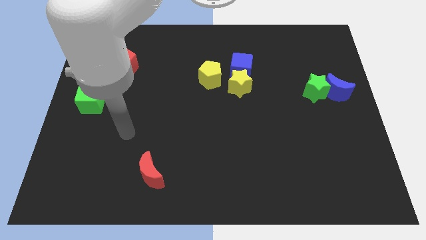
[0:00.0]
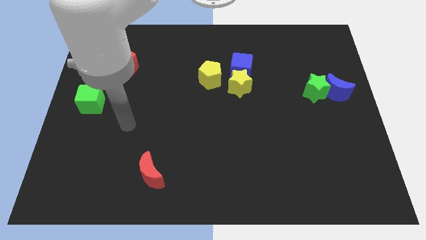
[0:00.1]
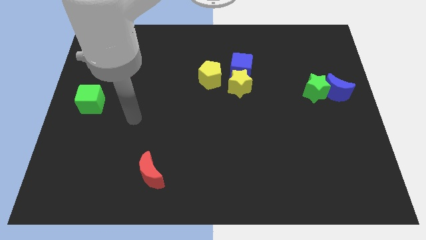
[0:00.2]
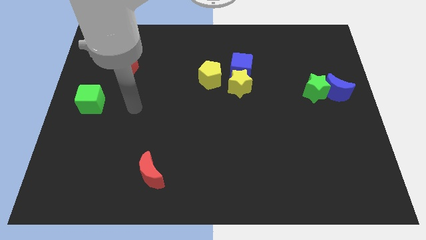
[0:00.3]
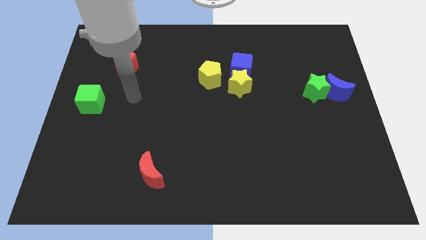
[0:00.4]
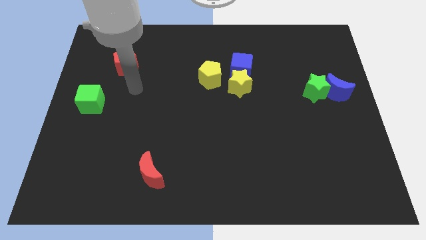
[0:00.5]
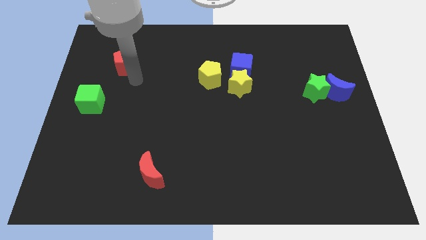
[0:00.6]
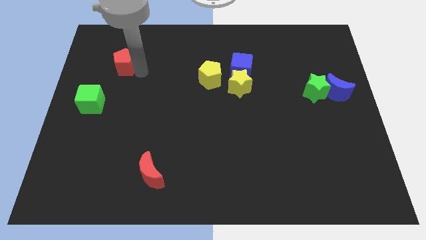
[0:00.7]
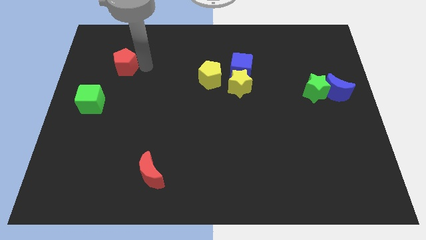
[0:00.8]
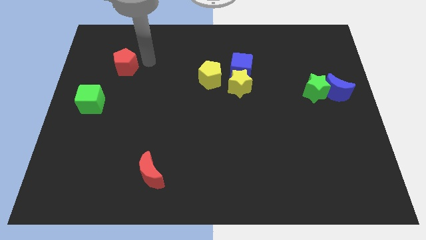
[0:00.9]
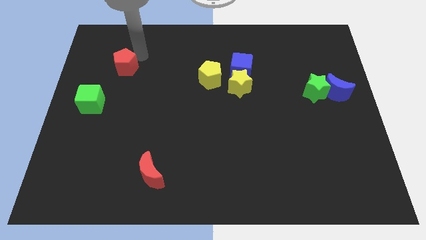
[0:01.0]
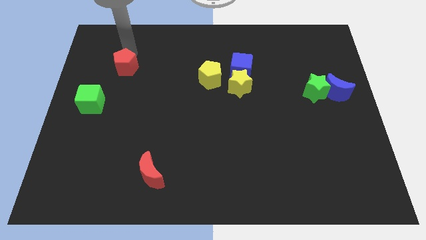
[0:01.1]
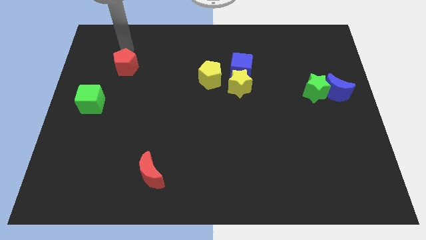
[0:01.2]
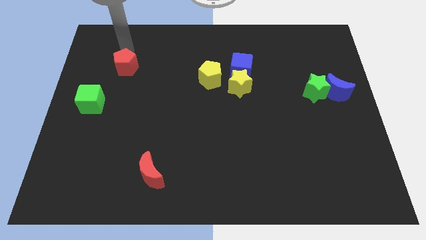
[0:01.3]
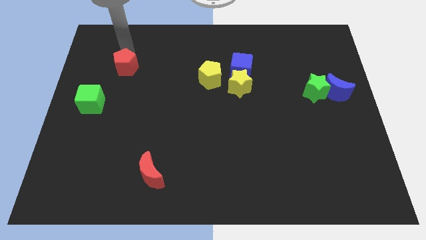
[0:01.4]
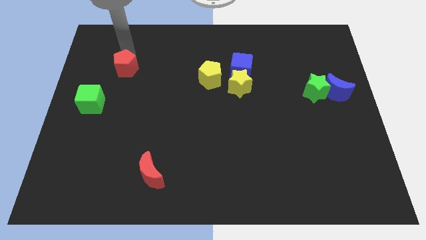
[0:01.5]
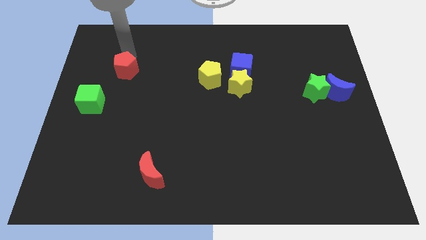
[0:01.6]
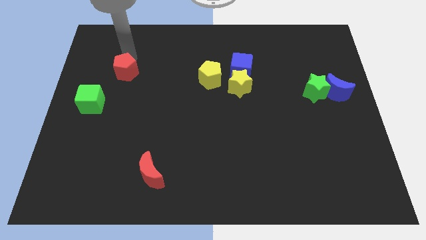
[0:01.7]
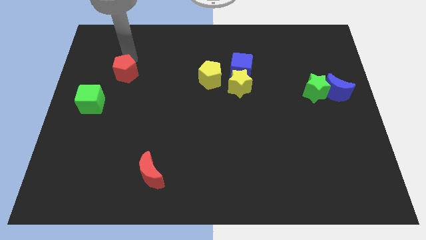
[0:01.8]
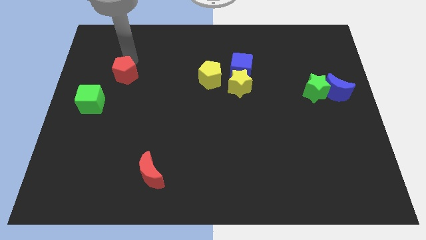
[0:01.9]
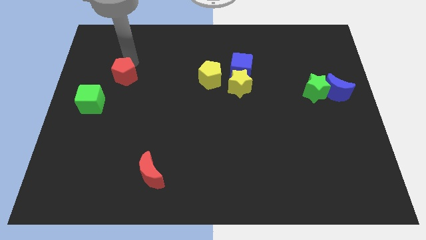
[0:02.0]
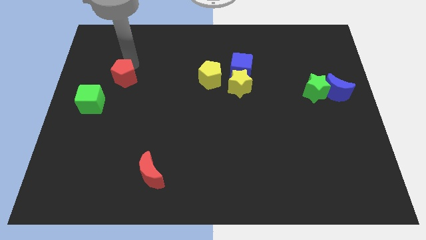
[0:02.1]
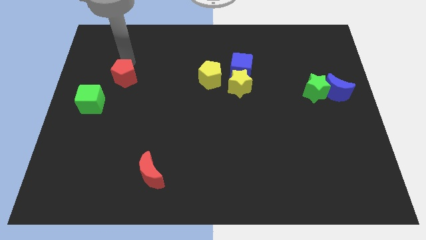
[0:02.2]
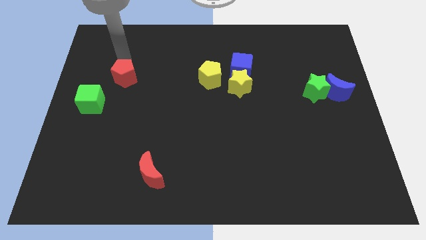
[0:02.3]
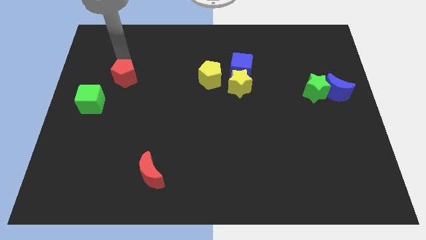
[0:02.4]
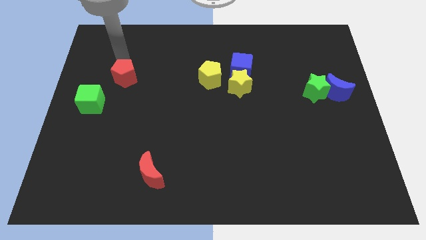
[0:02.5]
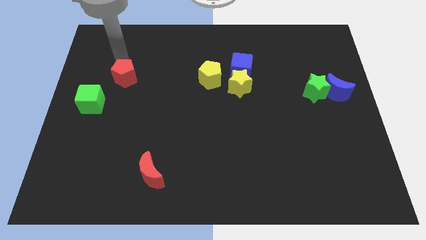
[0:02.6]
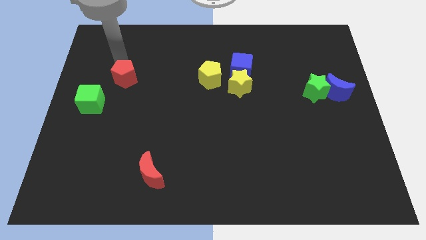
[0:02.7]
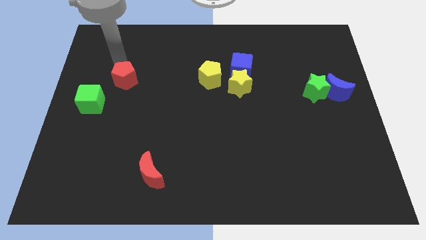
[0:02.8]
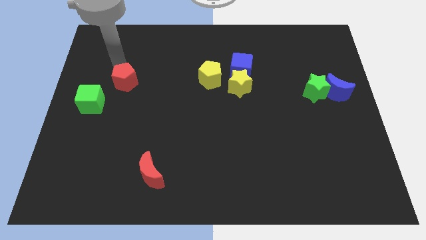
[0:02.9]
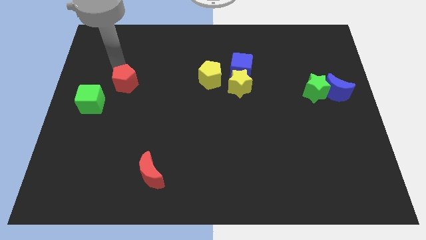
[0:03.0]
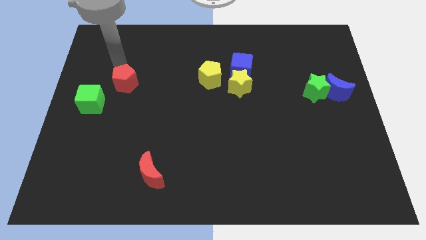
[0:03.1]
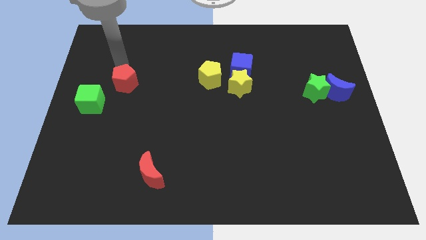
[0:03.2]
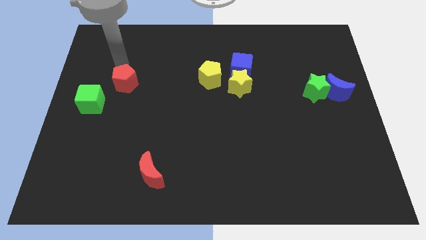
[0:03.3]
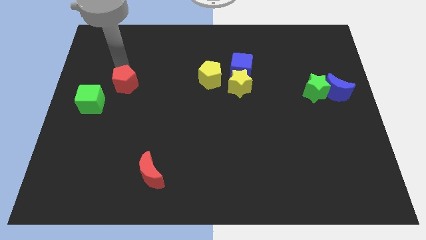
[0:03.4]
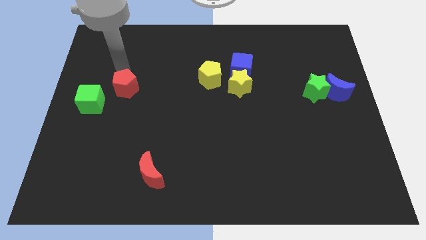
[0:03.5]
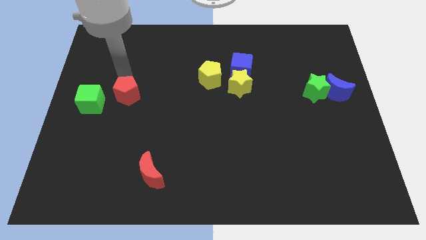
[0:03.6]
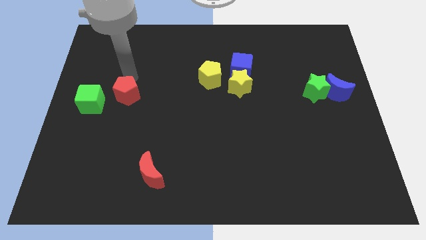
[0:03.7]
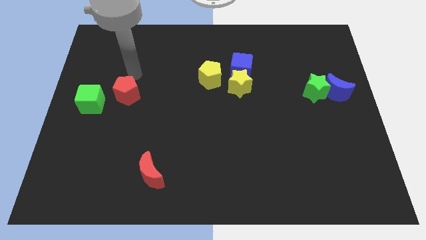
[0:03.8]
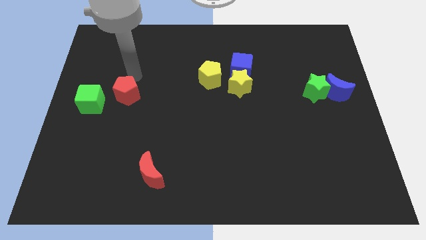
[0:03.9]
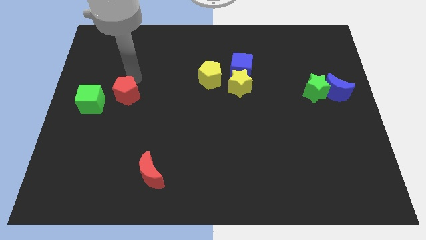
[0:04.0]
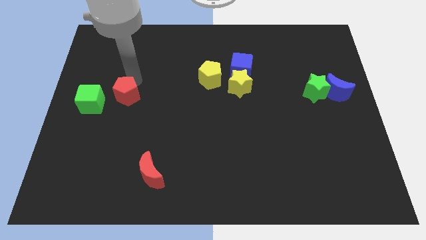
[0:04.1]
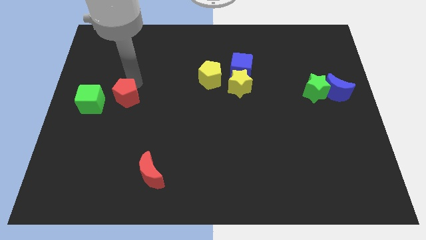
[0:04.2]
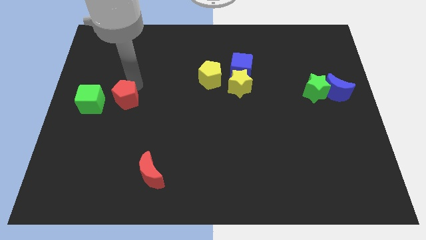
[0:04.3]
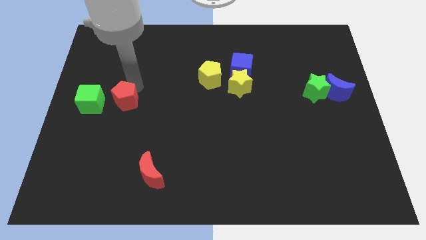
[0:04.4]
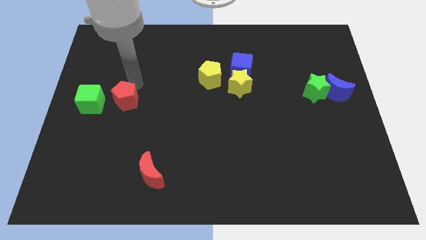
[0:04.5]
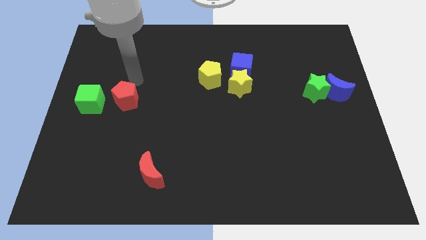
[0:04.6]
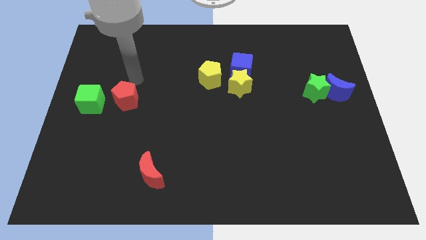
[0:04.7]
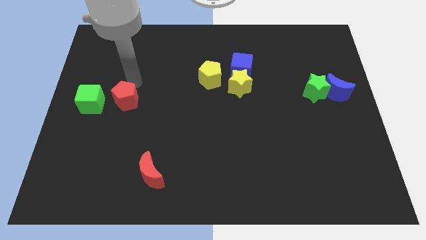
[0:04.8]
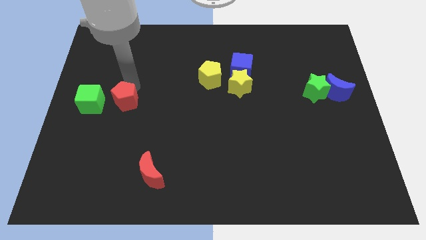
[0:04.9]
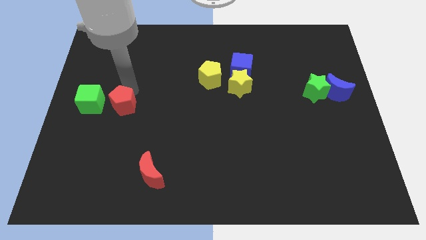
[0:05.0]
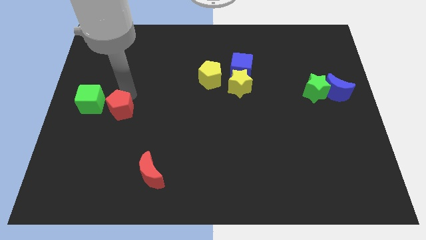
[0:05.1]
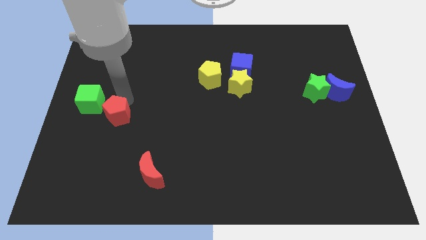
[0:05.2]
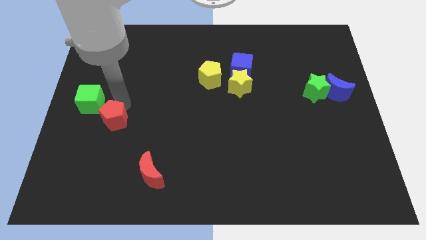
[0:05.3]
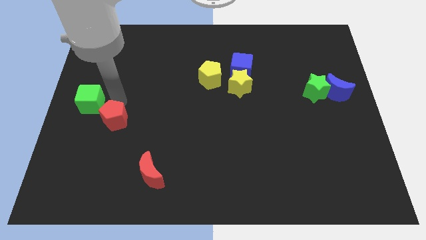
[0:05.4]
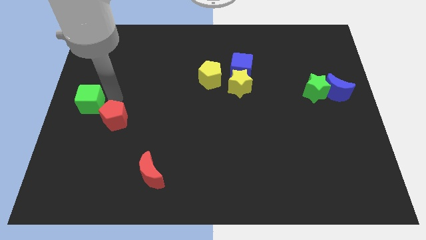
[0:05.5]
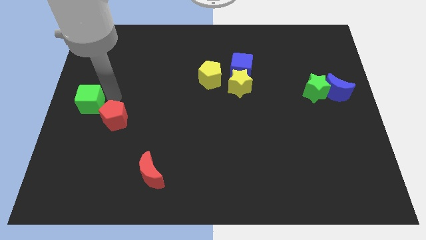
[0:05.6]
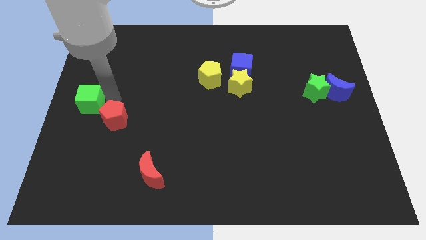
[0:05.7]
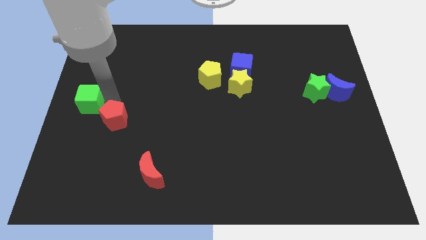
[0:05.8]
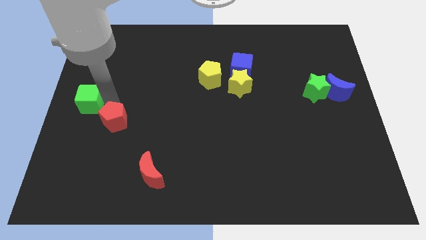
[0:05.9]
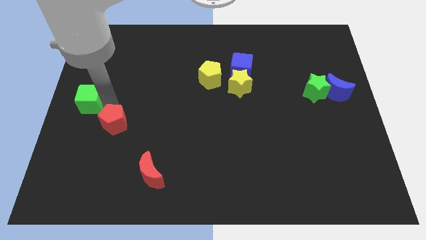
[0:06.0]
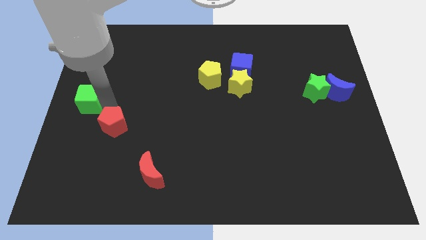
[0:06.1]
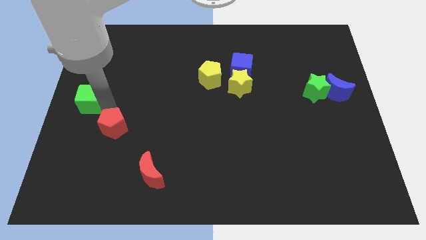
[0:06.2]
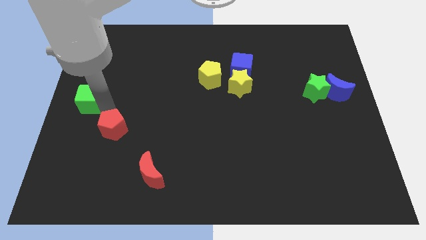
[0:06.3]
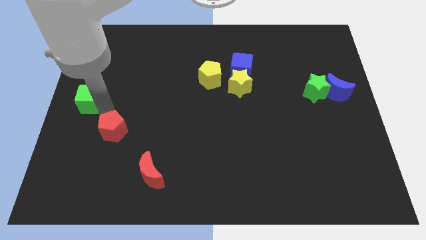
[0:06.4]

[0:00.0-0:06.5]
slide the red pentagon down

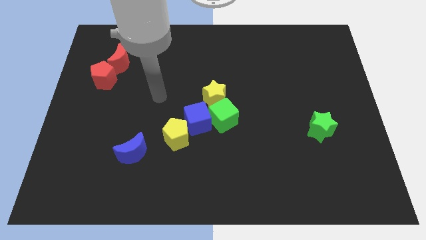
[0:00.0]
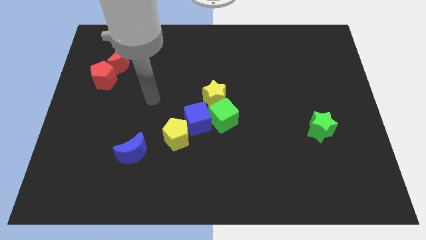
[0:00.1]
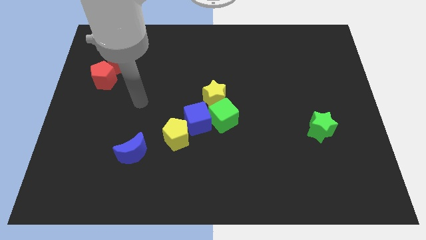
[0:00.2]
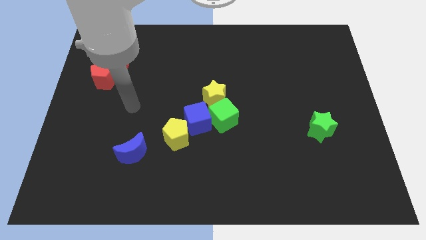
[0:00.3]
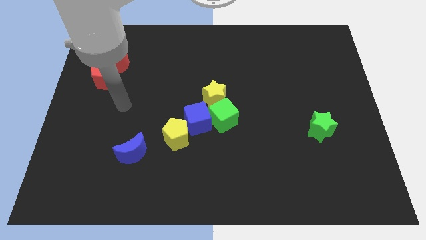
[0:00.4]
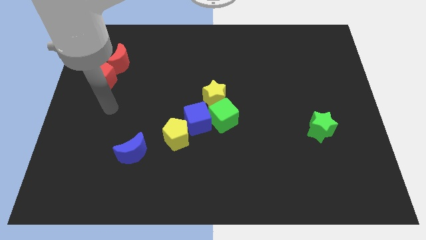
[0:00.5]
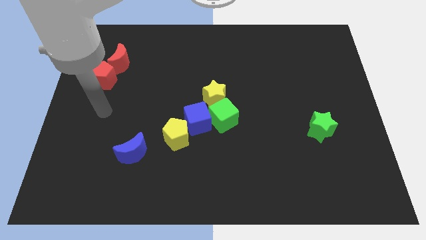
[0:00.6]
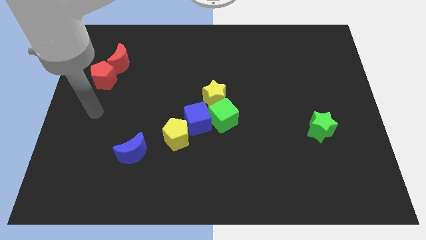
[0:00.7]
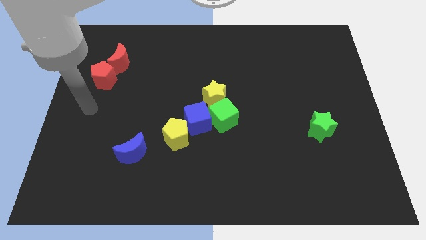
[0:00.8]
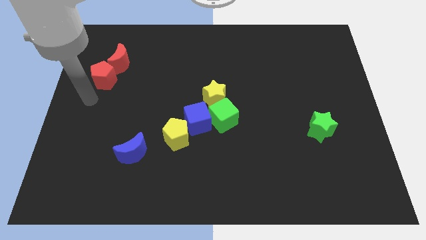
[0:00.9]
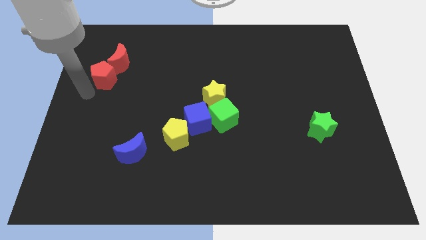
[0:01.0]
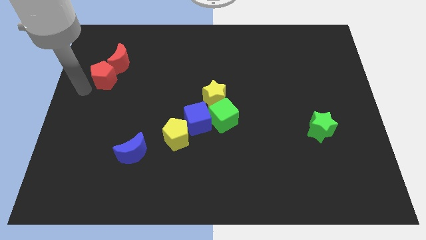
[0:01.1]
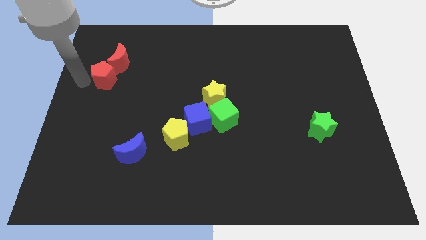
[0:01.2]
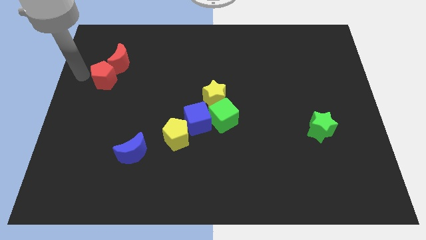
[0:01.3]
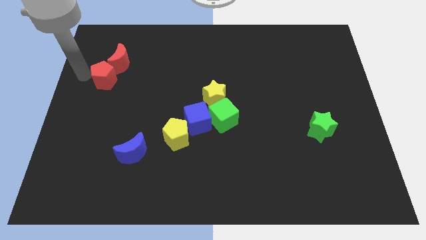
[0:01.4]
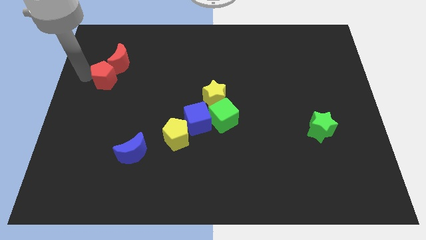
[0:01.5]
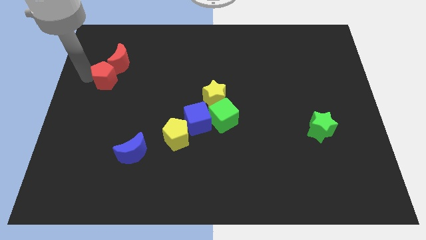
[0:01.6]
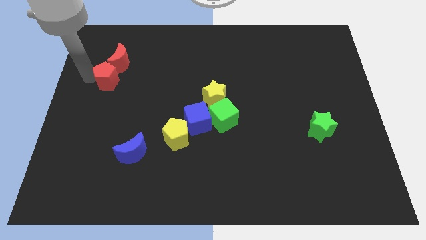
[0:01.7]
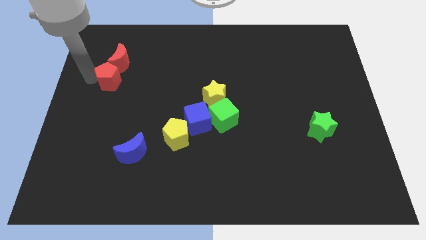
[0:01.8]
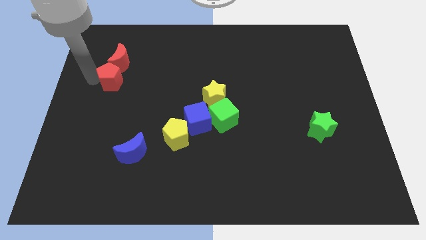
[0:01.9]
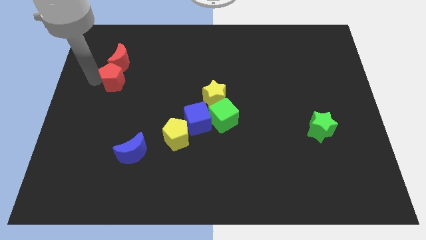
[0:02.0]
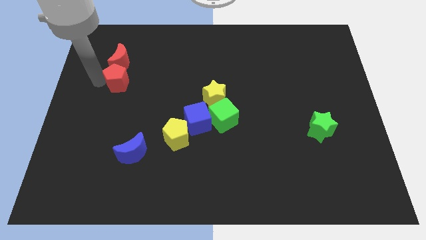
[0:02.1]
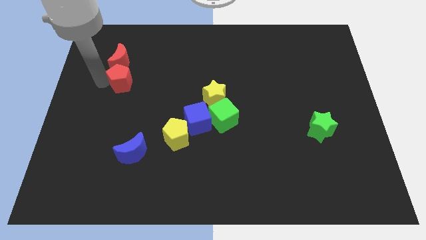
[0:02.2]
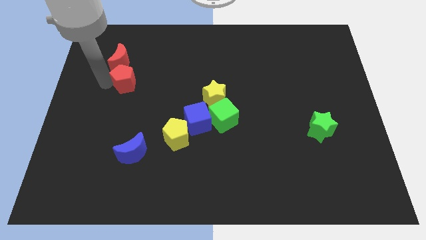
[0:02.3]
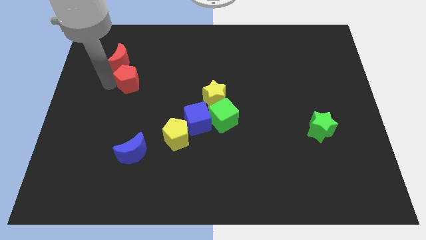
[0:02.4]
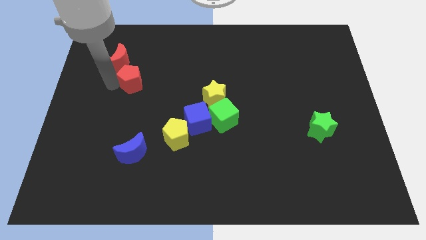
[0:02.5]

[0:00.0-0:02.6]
push the red pentagon a bit to the right
